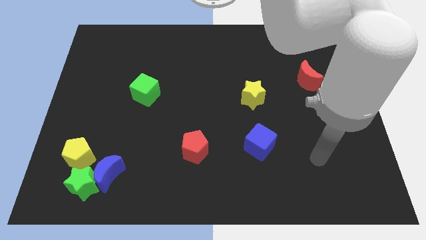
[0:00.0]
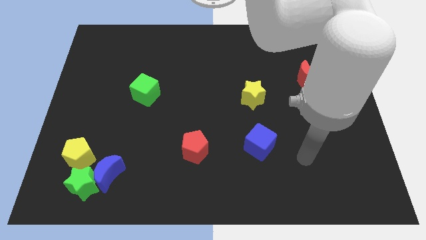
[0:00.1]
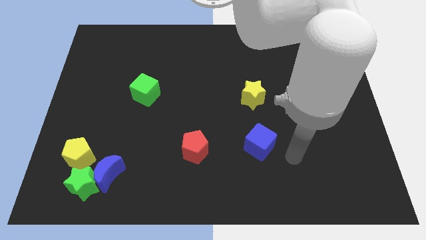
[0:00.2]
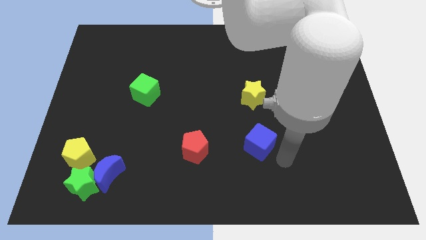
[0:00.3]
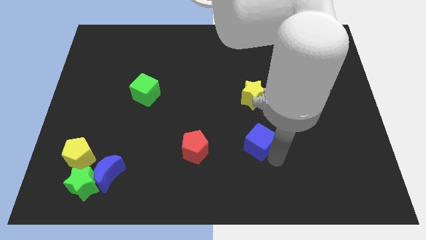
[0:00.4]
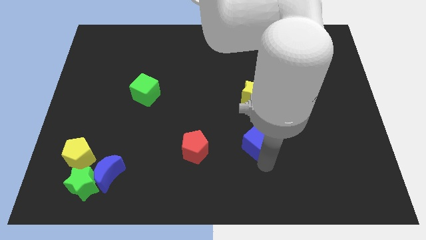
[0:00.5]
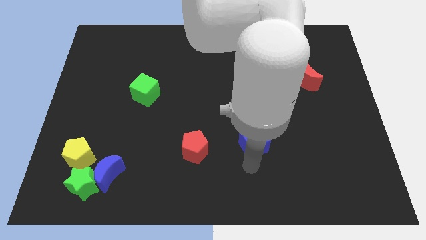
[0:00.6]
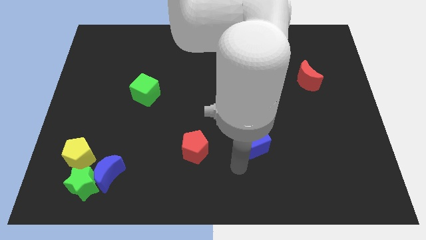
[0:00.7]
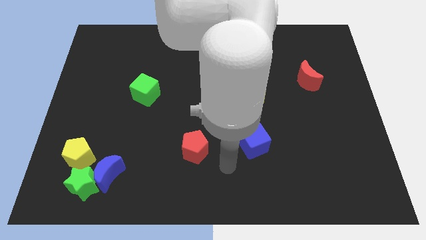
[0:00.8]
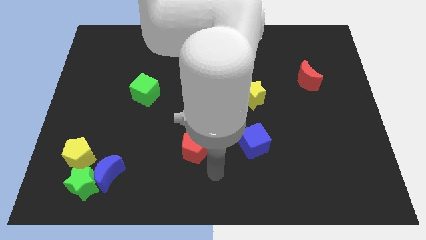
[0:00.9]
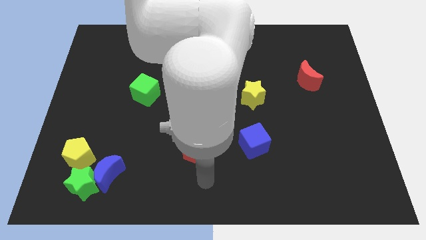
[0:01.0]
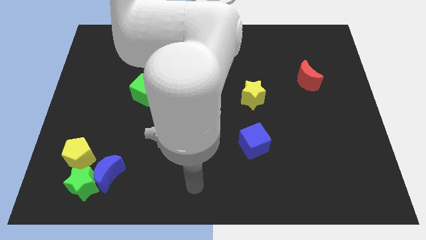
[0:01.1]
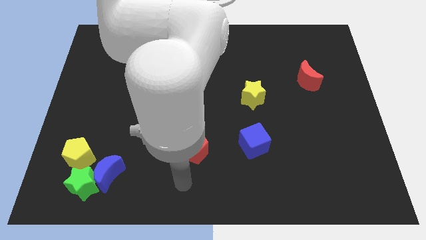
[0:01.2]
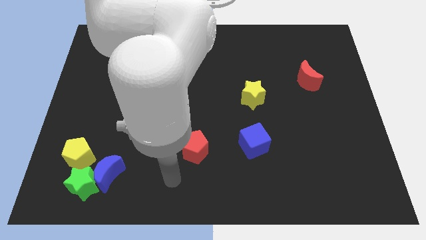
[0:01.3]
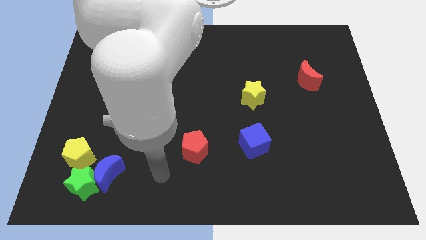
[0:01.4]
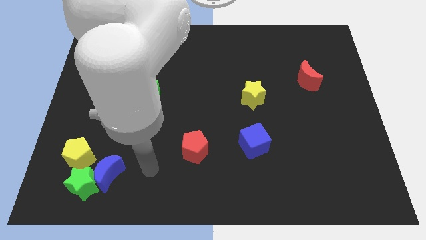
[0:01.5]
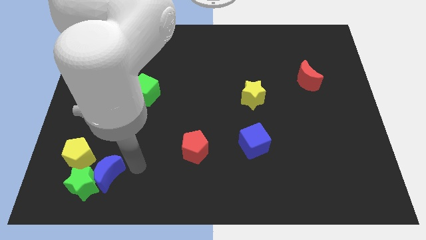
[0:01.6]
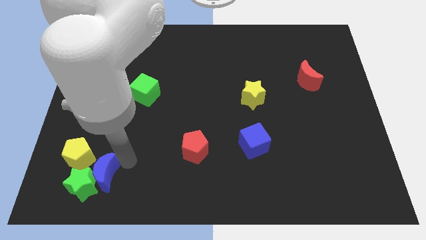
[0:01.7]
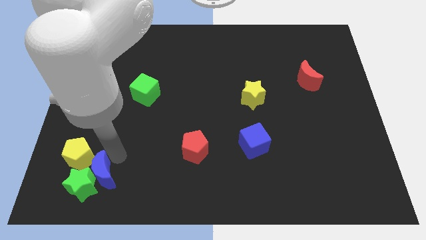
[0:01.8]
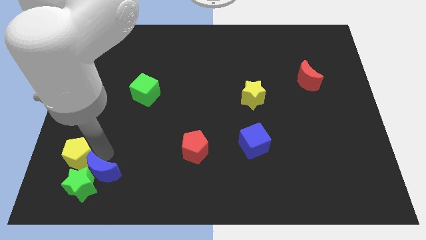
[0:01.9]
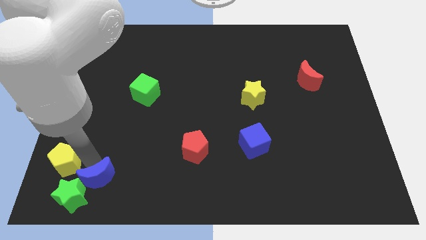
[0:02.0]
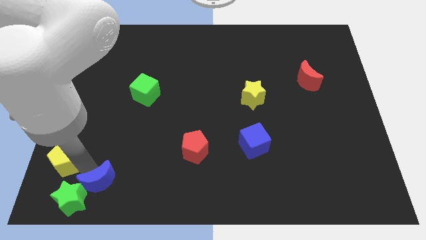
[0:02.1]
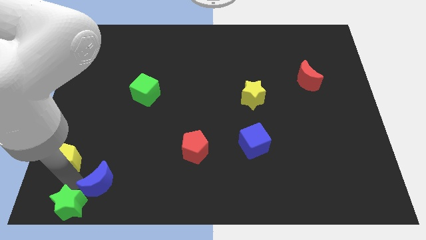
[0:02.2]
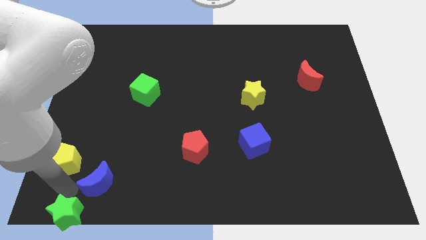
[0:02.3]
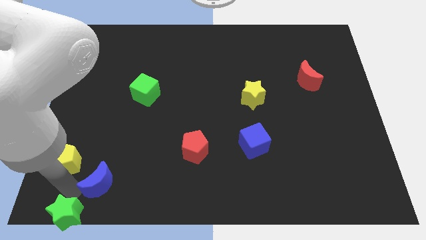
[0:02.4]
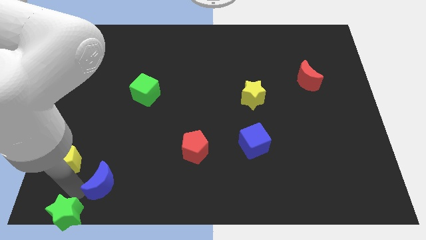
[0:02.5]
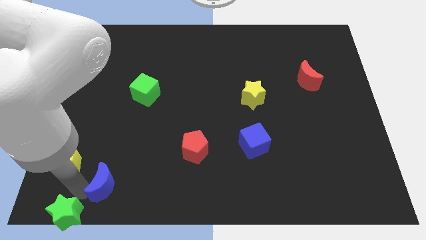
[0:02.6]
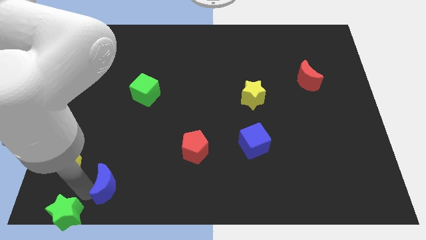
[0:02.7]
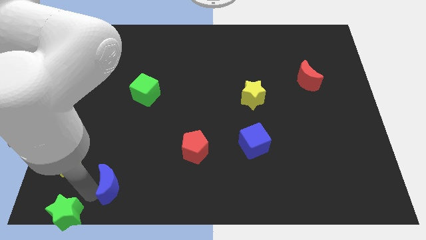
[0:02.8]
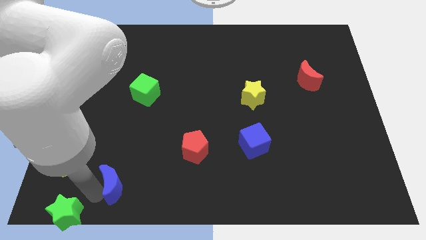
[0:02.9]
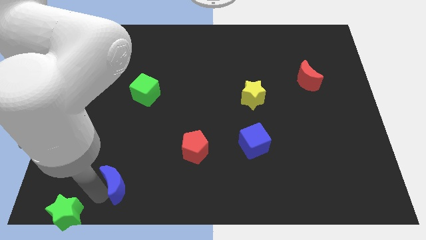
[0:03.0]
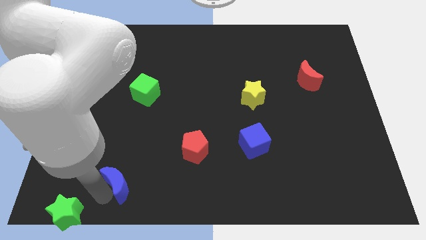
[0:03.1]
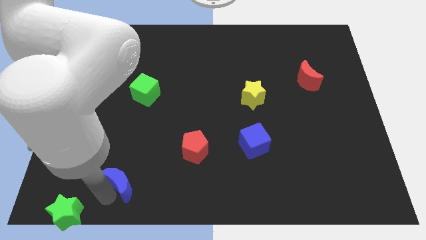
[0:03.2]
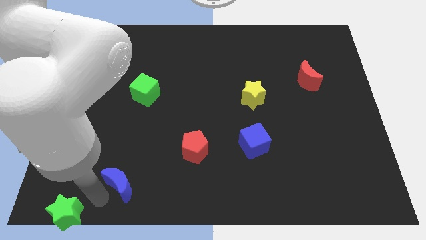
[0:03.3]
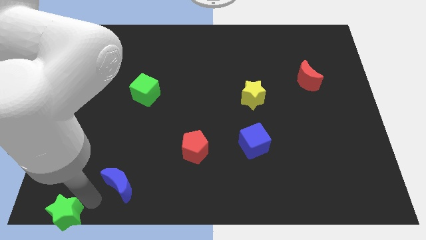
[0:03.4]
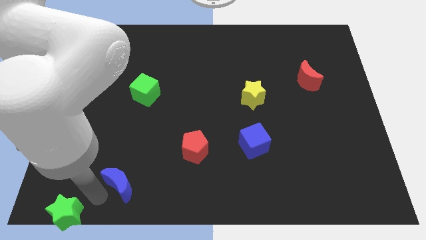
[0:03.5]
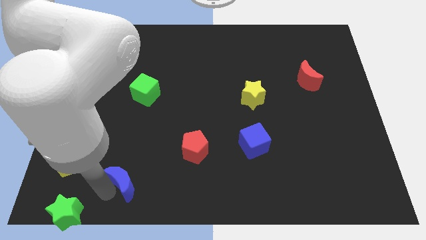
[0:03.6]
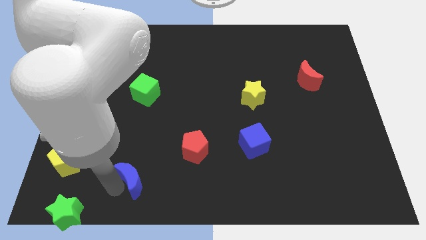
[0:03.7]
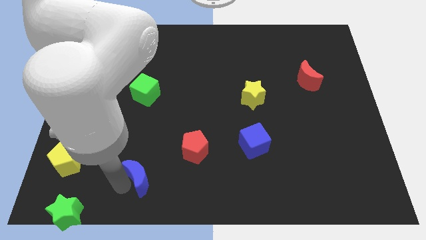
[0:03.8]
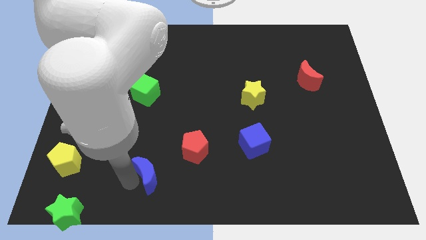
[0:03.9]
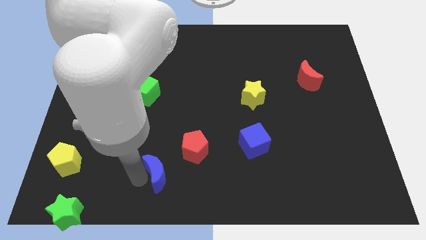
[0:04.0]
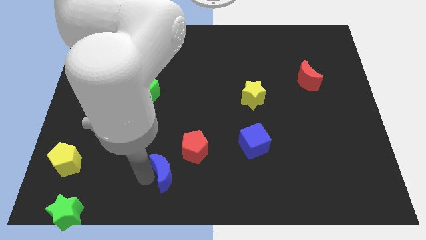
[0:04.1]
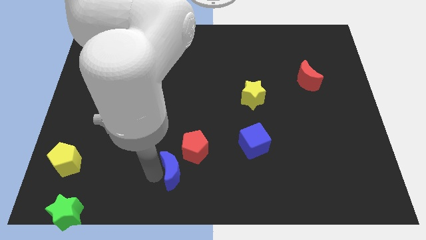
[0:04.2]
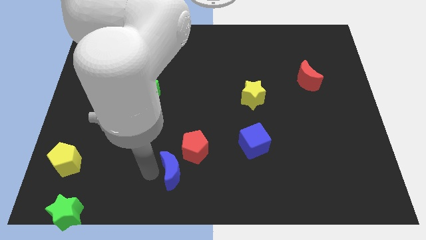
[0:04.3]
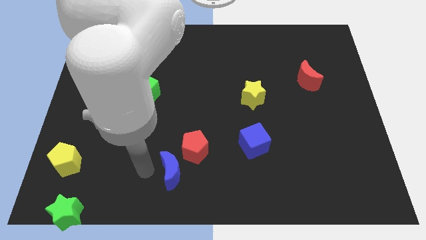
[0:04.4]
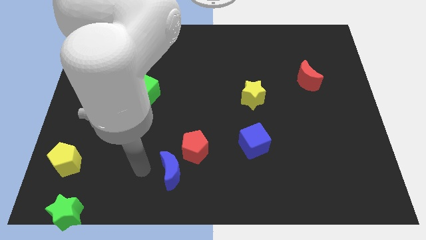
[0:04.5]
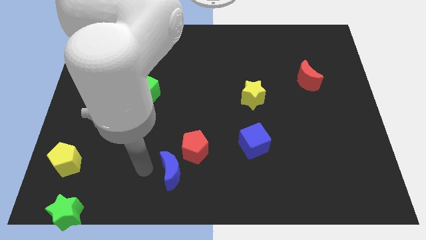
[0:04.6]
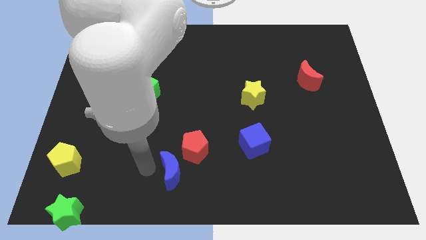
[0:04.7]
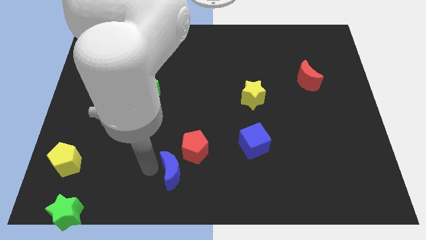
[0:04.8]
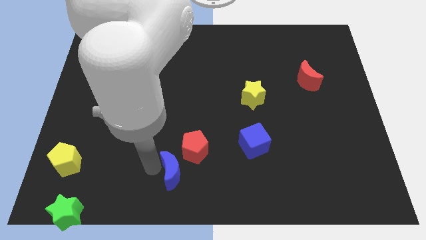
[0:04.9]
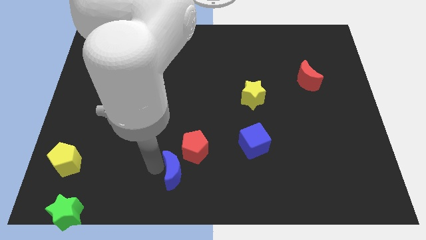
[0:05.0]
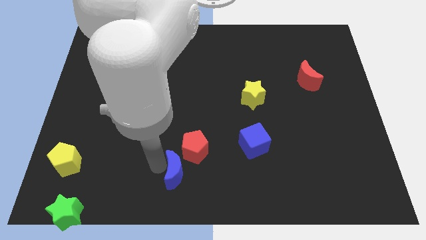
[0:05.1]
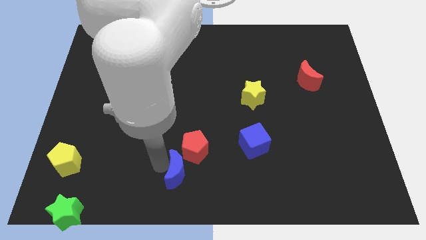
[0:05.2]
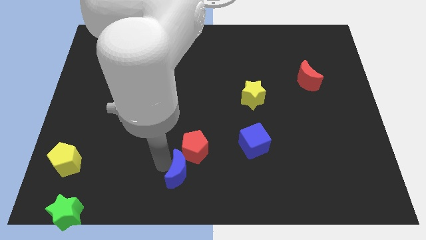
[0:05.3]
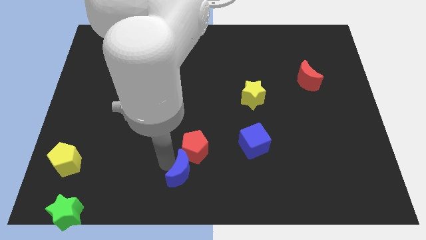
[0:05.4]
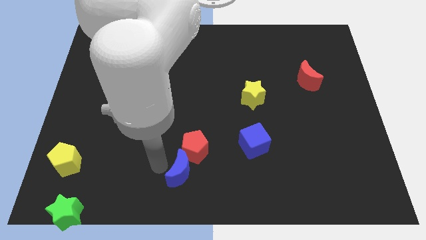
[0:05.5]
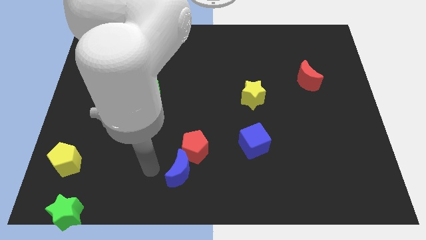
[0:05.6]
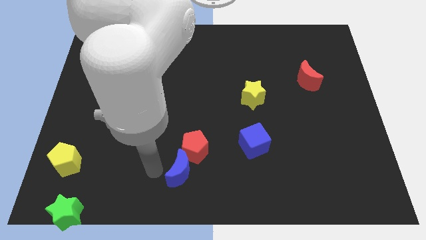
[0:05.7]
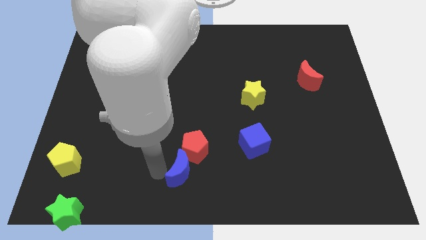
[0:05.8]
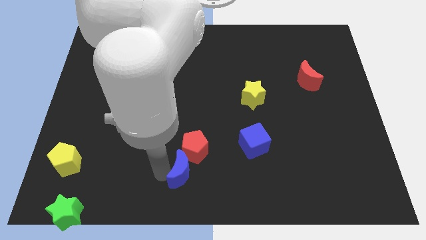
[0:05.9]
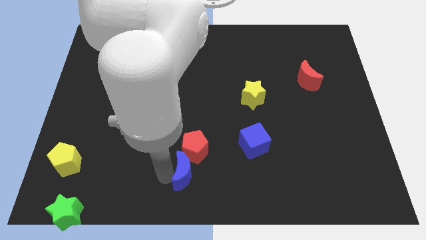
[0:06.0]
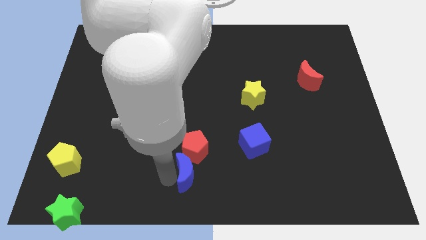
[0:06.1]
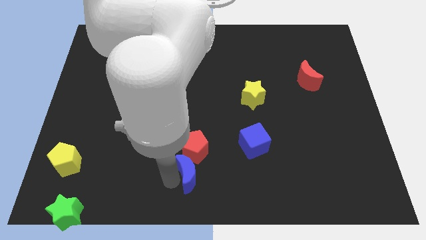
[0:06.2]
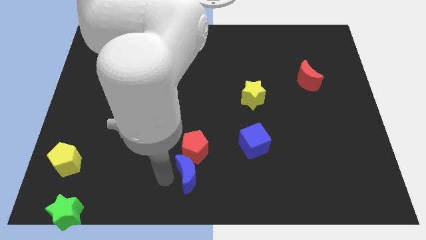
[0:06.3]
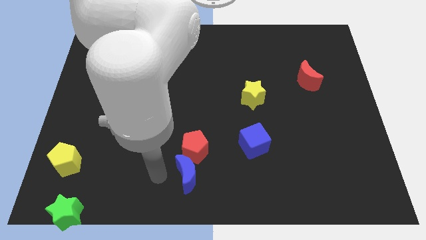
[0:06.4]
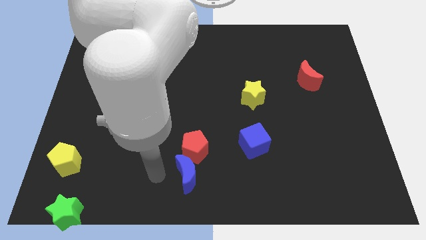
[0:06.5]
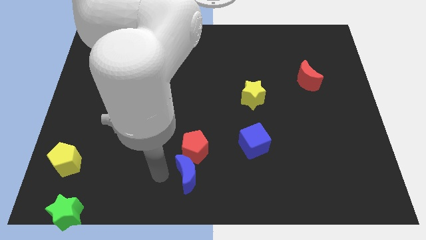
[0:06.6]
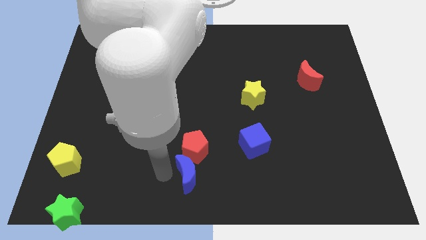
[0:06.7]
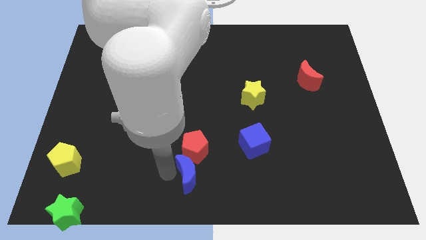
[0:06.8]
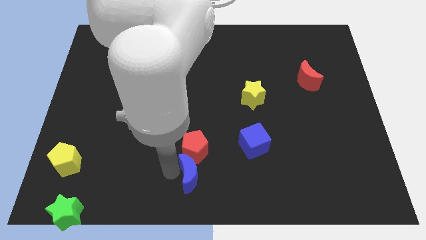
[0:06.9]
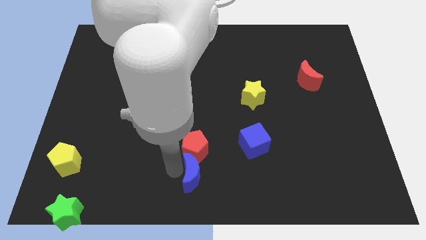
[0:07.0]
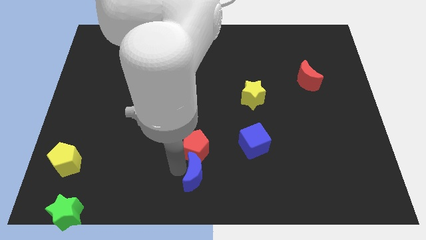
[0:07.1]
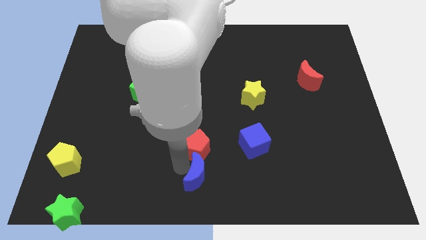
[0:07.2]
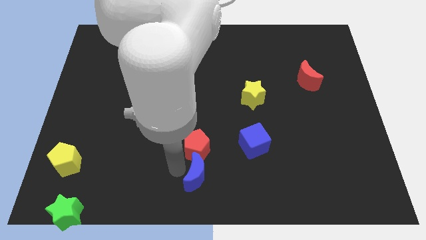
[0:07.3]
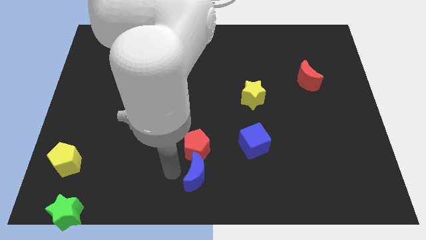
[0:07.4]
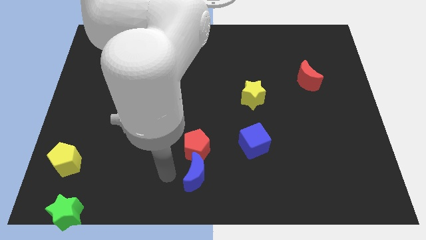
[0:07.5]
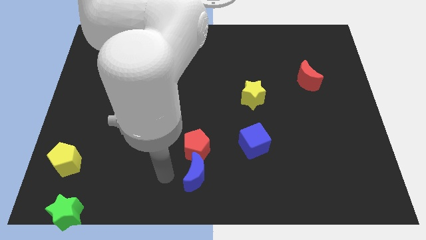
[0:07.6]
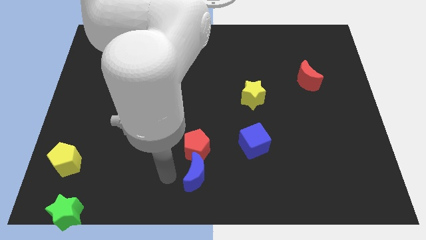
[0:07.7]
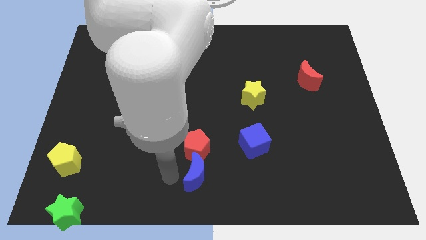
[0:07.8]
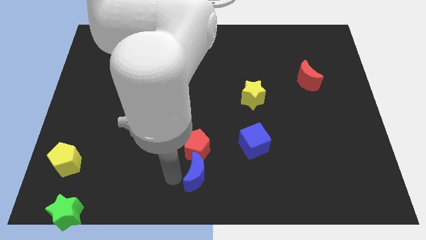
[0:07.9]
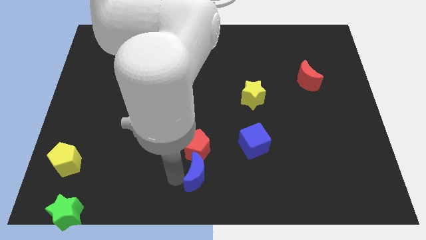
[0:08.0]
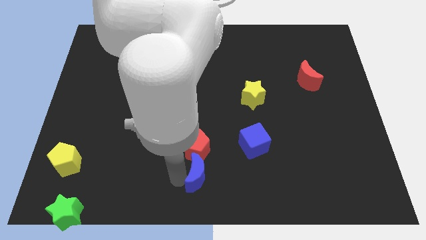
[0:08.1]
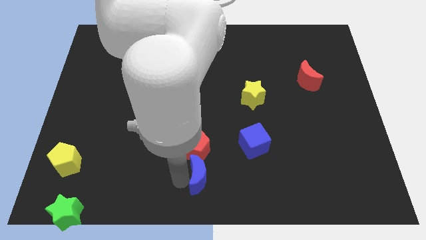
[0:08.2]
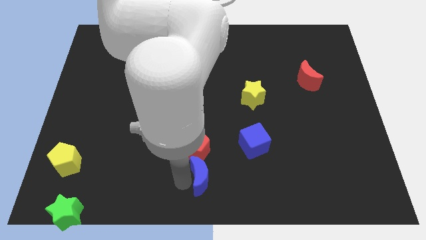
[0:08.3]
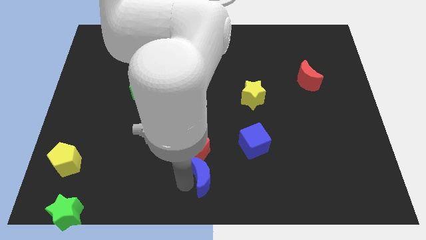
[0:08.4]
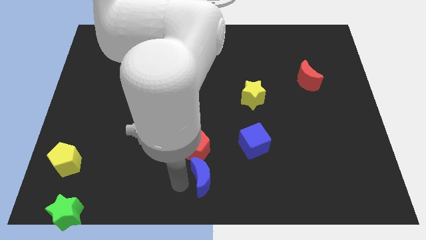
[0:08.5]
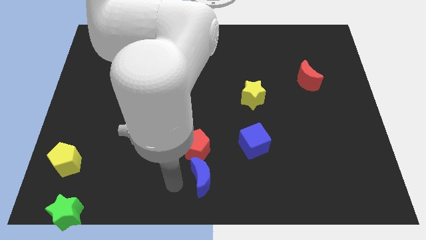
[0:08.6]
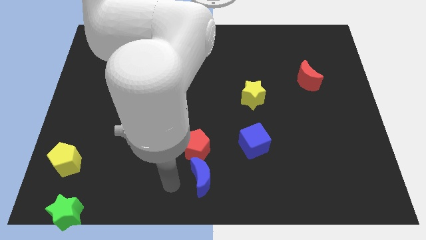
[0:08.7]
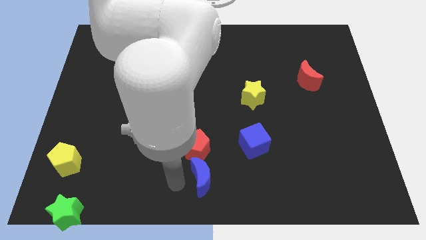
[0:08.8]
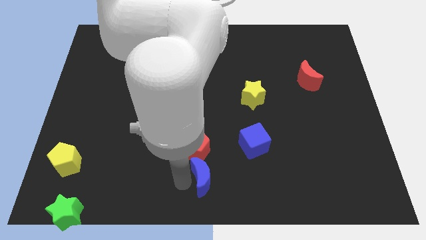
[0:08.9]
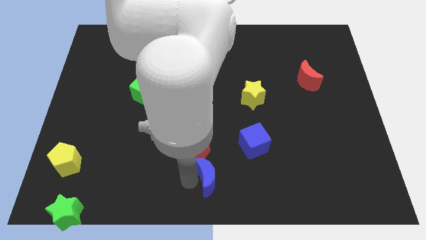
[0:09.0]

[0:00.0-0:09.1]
push the blue moon to the right
